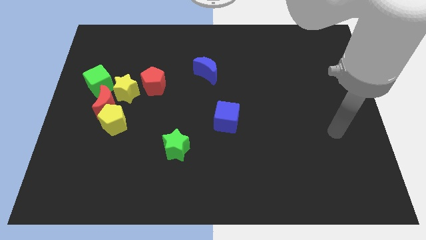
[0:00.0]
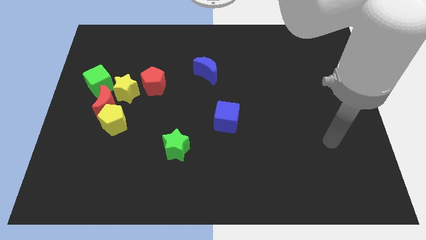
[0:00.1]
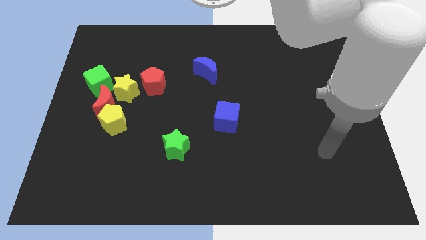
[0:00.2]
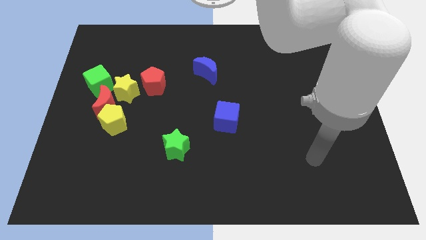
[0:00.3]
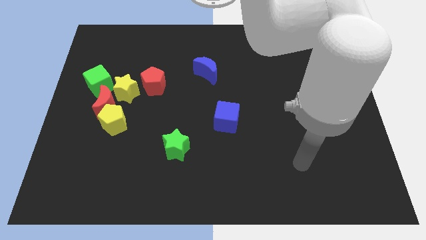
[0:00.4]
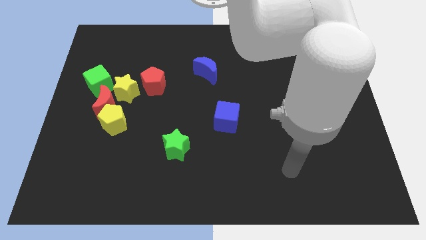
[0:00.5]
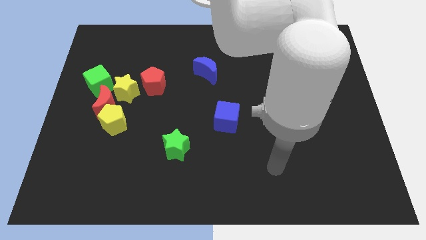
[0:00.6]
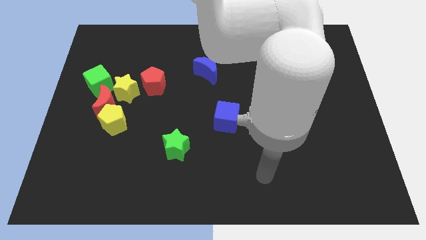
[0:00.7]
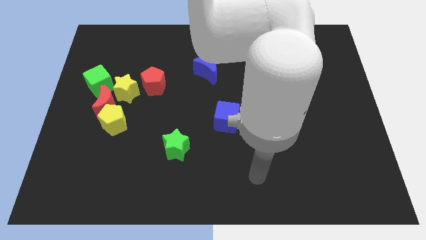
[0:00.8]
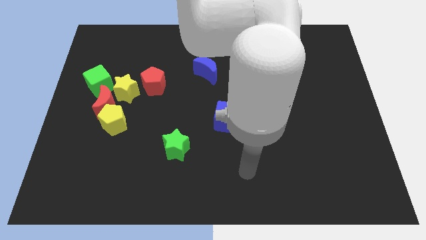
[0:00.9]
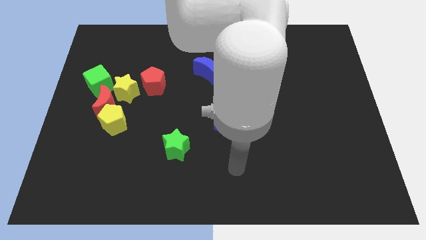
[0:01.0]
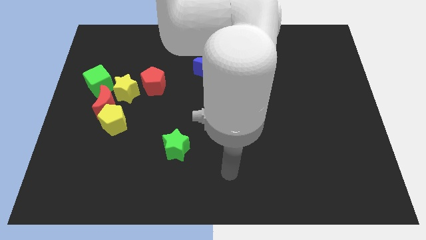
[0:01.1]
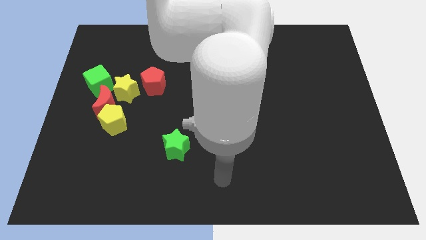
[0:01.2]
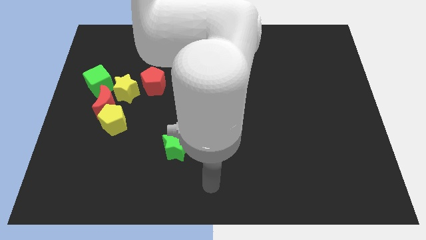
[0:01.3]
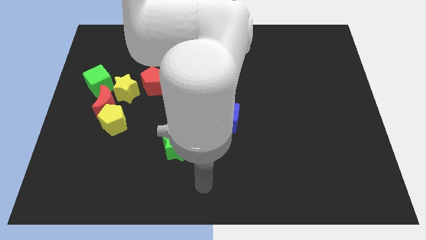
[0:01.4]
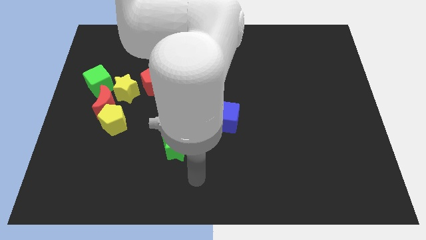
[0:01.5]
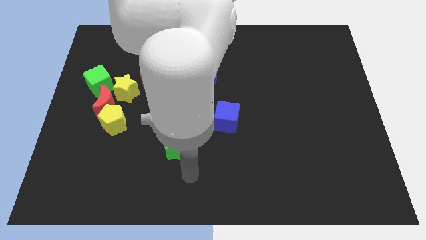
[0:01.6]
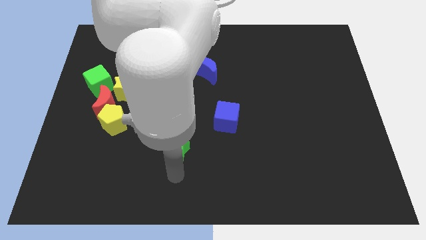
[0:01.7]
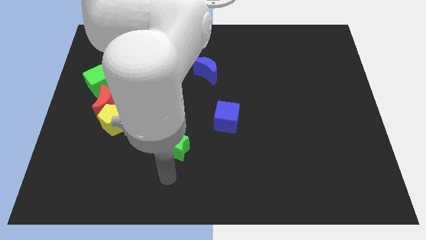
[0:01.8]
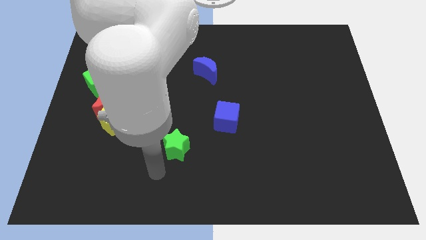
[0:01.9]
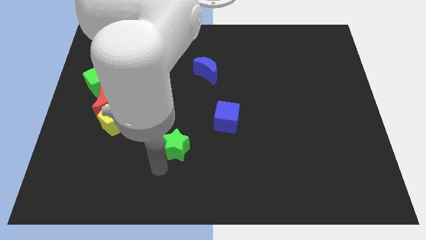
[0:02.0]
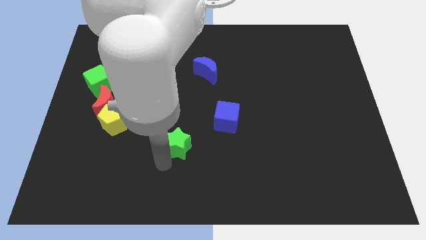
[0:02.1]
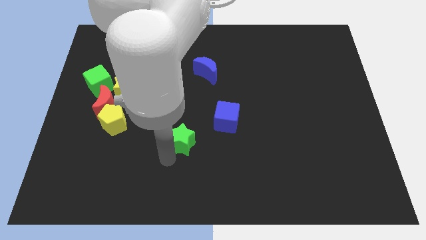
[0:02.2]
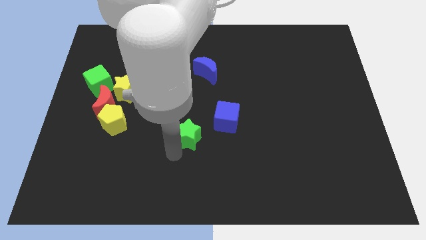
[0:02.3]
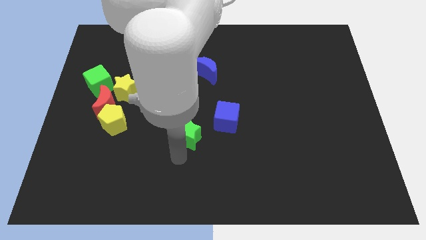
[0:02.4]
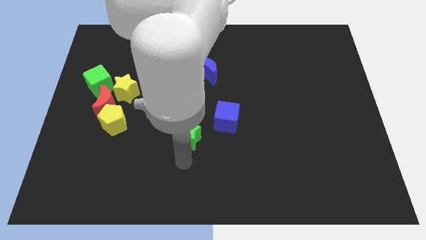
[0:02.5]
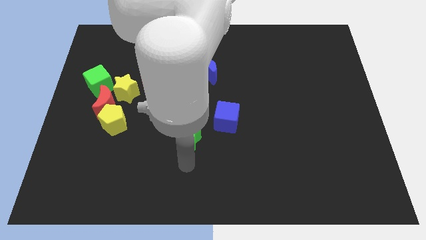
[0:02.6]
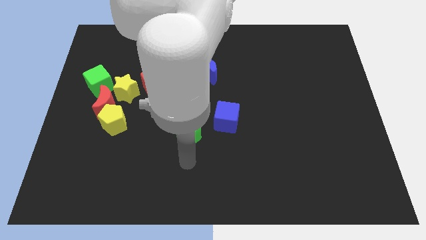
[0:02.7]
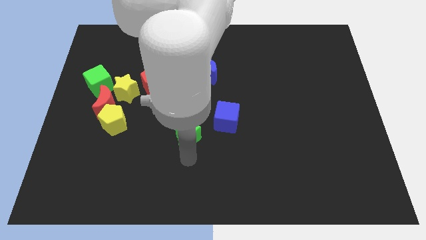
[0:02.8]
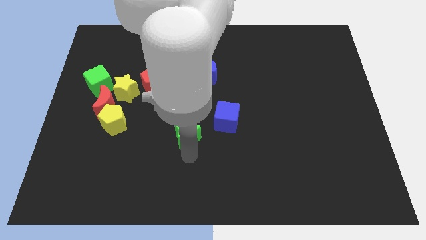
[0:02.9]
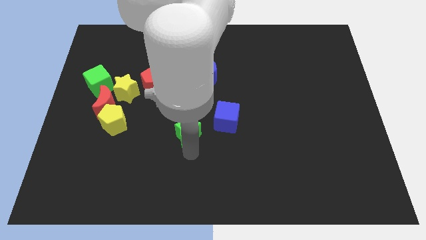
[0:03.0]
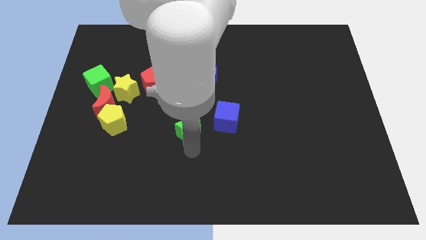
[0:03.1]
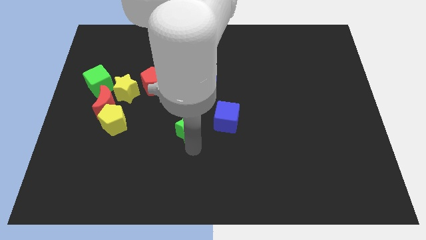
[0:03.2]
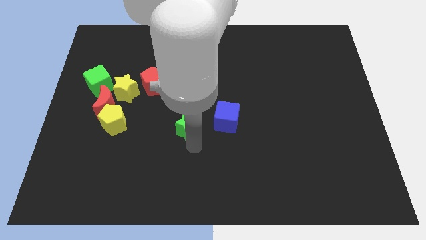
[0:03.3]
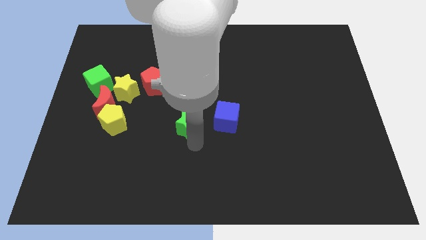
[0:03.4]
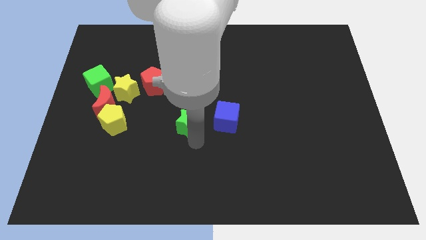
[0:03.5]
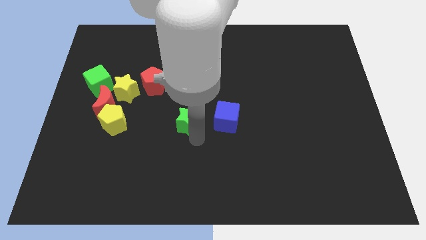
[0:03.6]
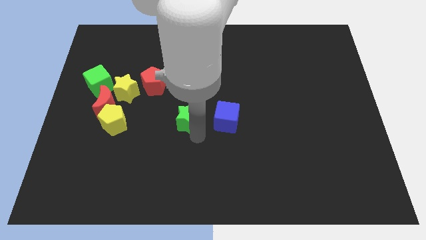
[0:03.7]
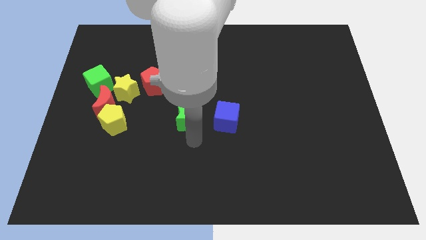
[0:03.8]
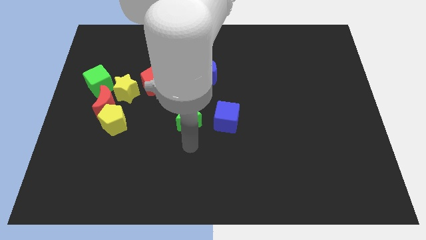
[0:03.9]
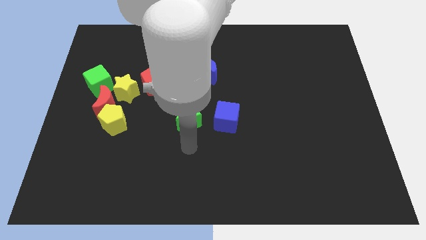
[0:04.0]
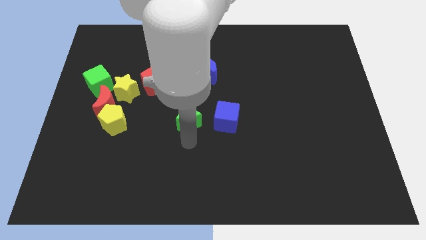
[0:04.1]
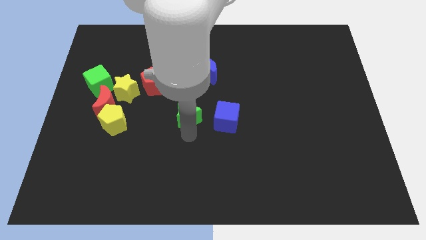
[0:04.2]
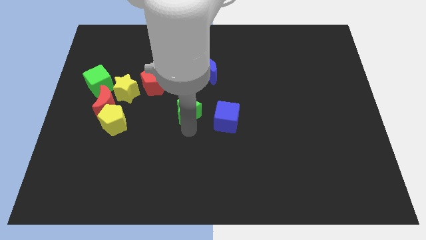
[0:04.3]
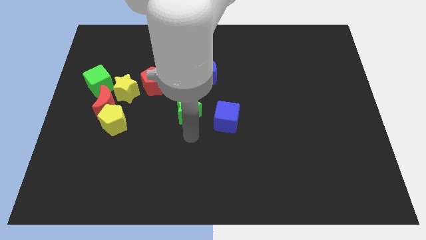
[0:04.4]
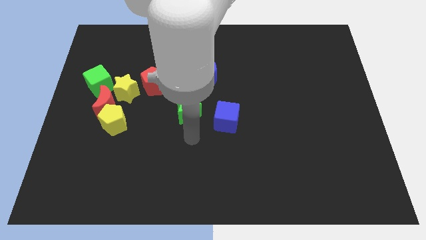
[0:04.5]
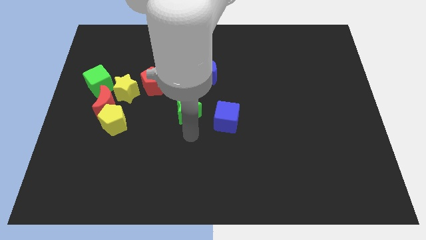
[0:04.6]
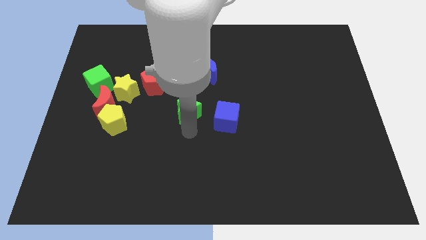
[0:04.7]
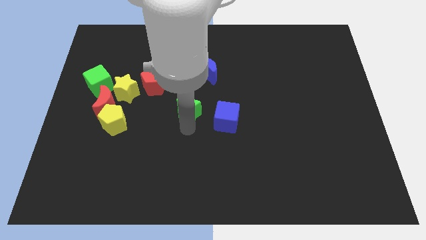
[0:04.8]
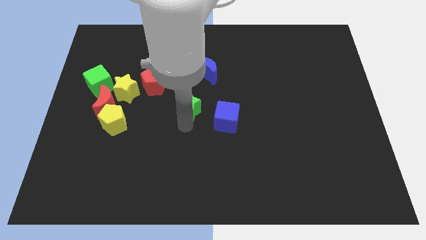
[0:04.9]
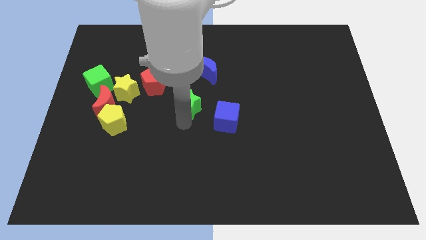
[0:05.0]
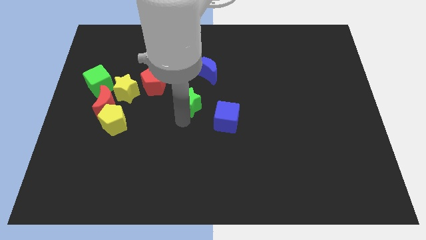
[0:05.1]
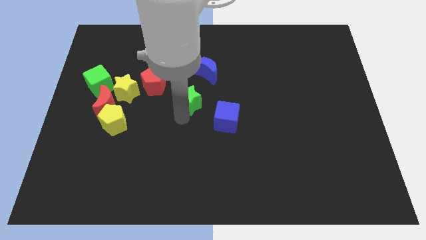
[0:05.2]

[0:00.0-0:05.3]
put the green star to the bottom left of the blue moon

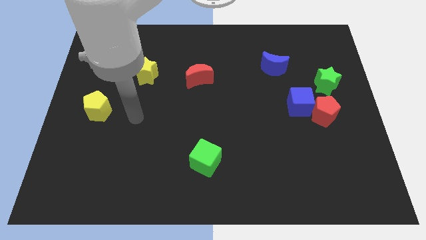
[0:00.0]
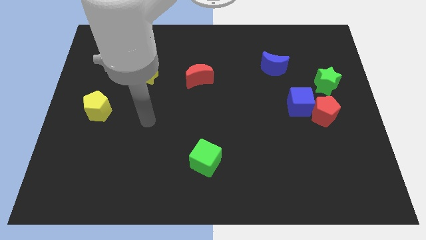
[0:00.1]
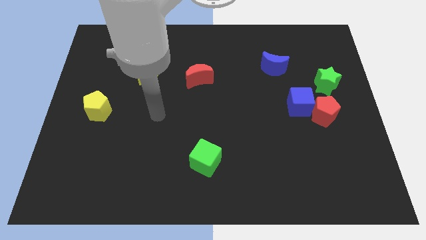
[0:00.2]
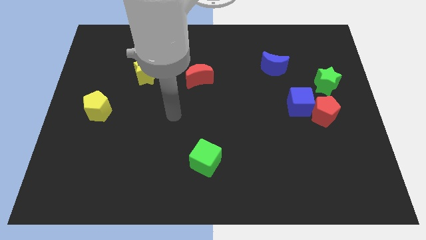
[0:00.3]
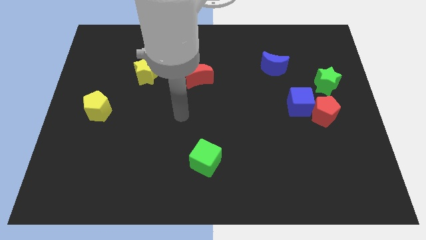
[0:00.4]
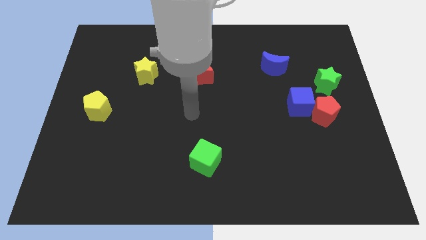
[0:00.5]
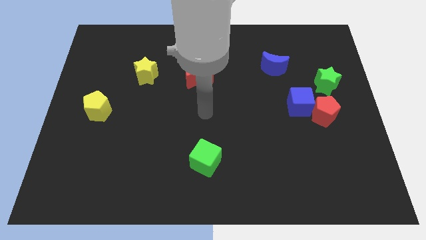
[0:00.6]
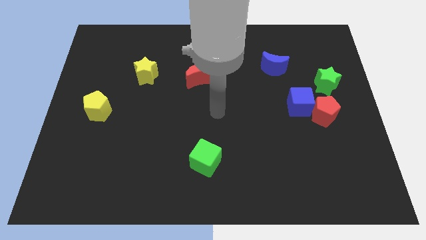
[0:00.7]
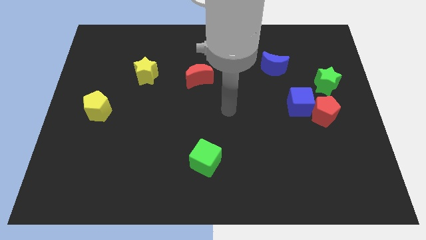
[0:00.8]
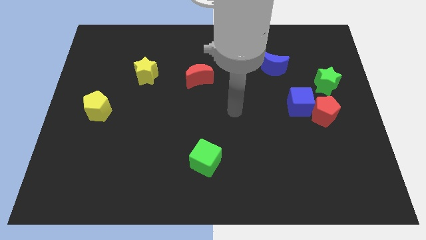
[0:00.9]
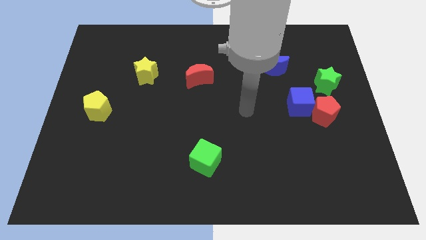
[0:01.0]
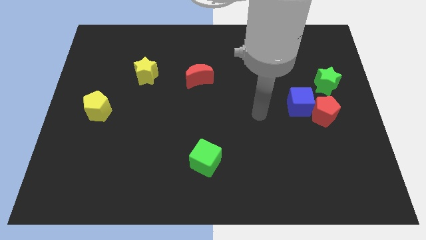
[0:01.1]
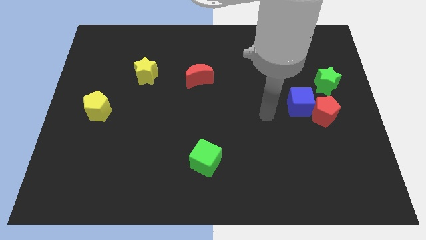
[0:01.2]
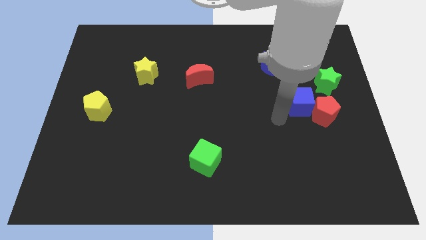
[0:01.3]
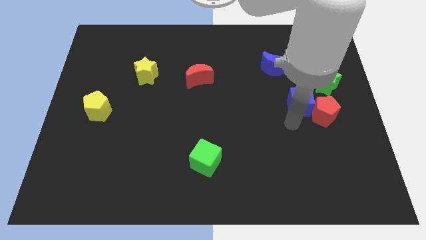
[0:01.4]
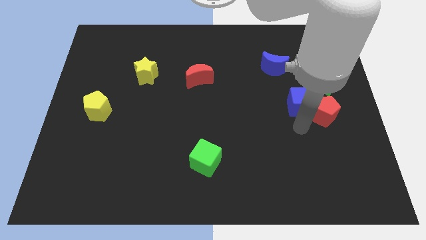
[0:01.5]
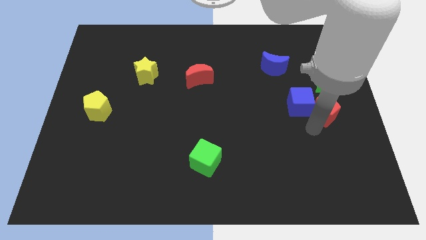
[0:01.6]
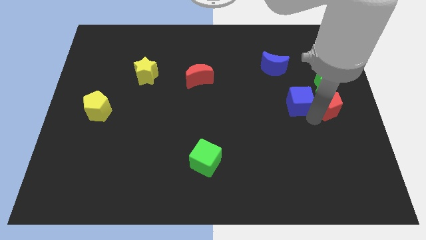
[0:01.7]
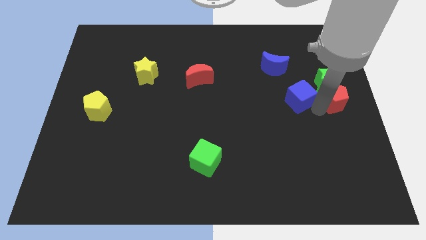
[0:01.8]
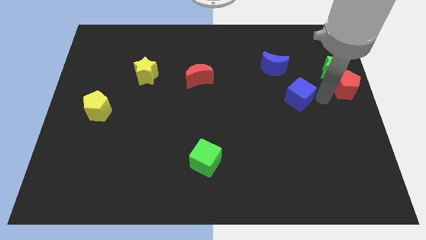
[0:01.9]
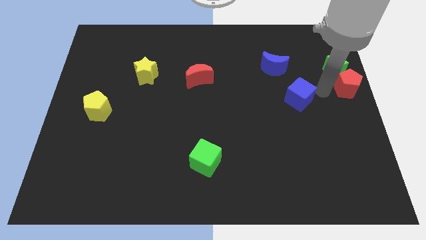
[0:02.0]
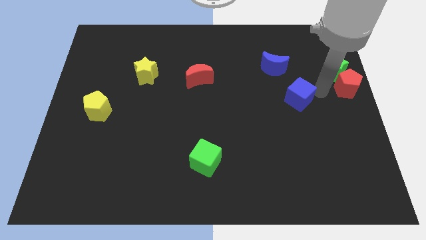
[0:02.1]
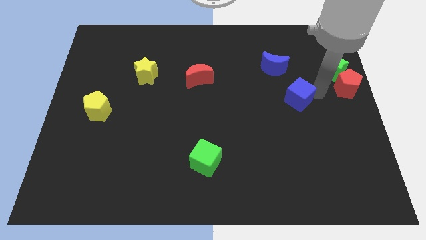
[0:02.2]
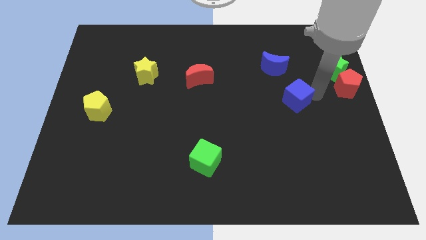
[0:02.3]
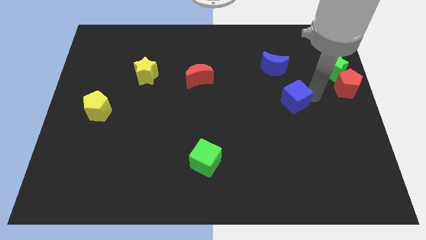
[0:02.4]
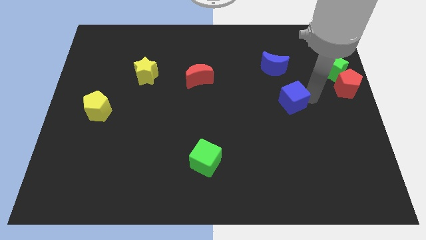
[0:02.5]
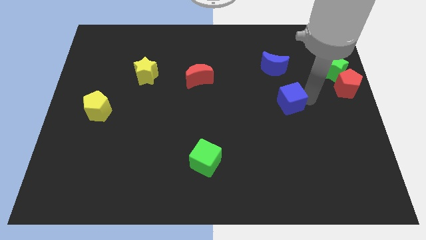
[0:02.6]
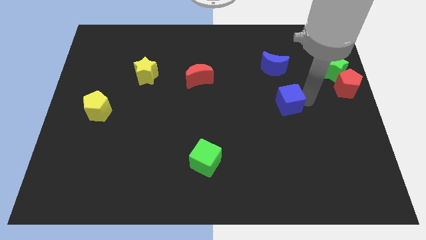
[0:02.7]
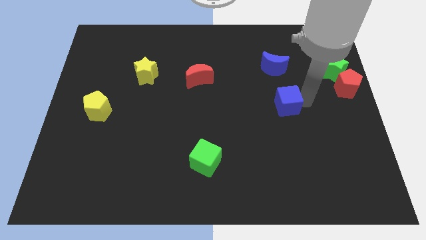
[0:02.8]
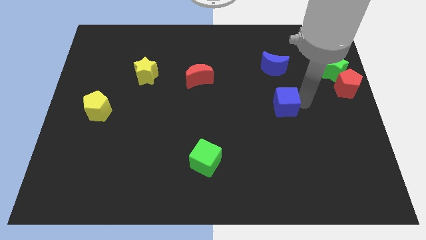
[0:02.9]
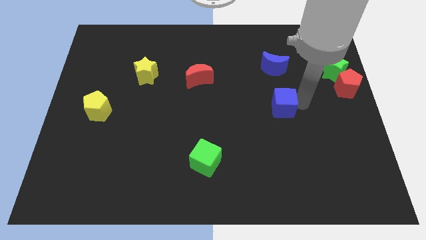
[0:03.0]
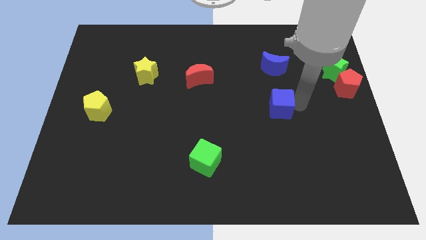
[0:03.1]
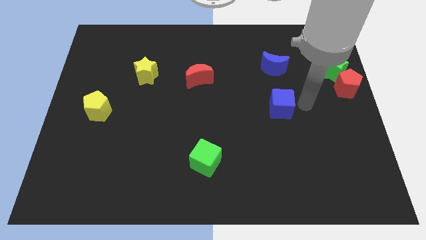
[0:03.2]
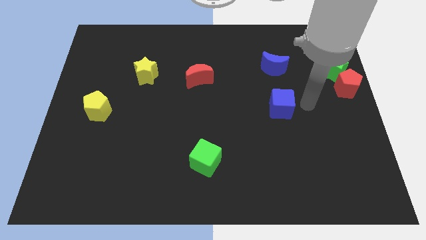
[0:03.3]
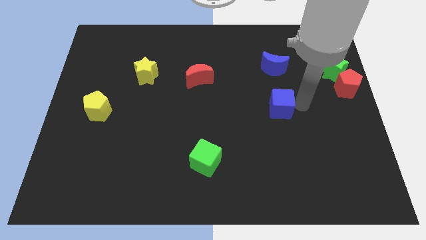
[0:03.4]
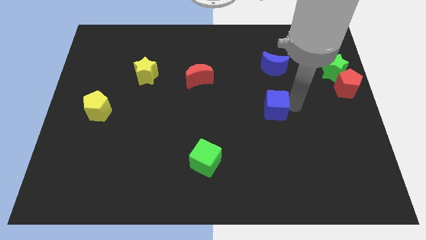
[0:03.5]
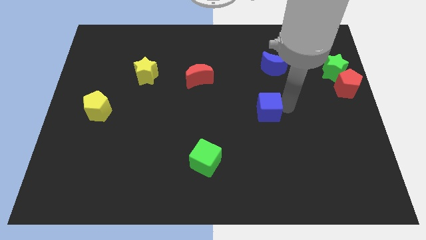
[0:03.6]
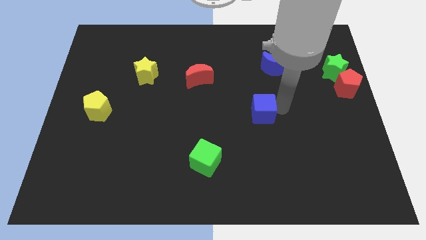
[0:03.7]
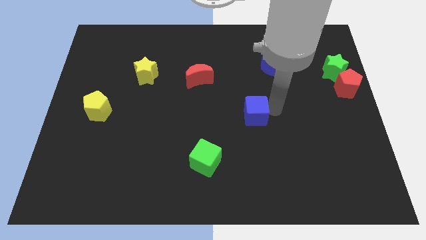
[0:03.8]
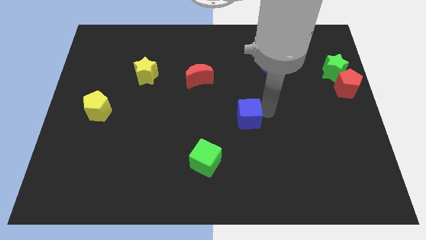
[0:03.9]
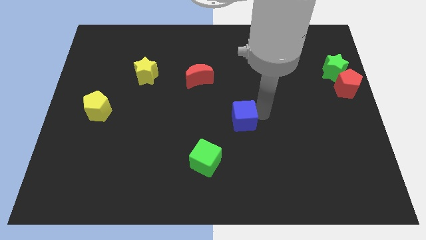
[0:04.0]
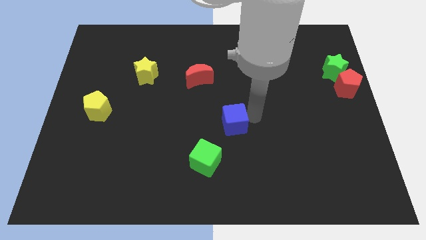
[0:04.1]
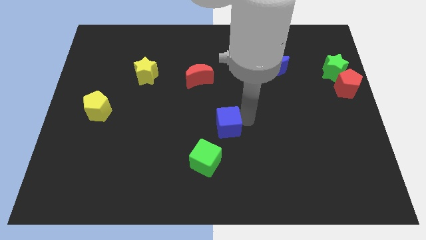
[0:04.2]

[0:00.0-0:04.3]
slide the blue cube to the top of the green cube
